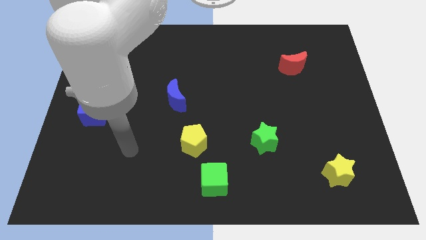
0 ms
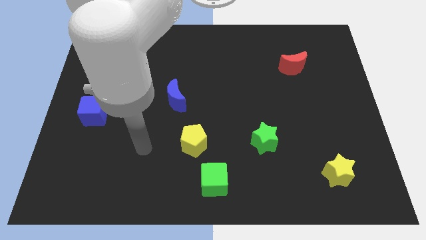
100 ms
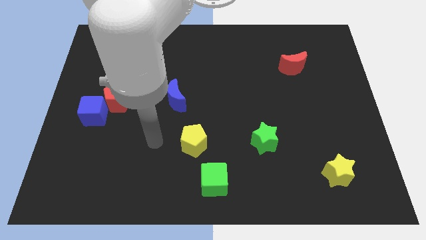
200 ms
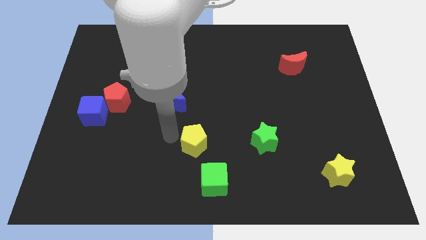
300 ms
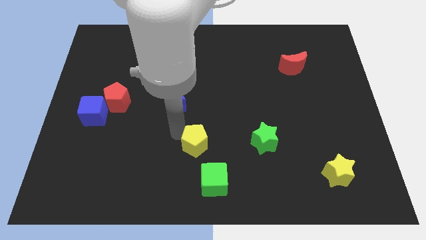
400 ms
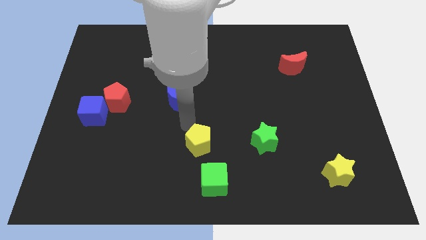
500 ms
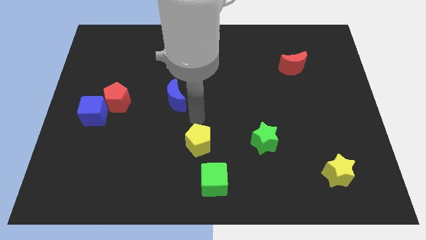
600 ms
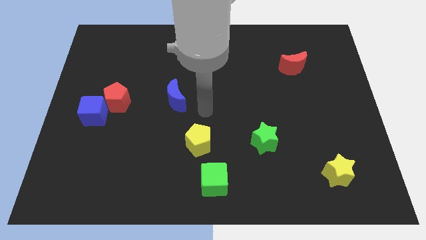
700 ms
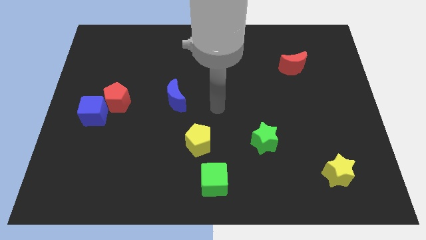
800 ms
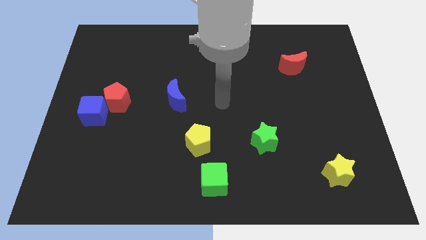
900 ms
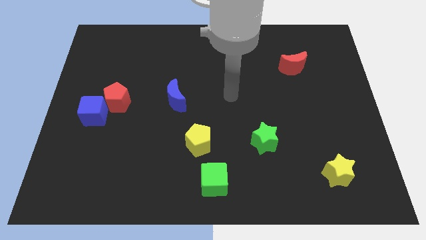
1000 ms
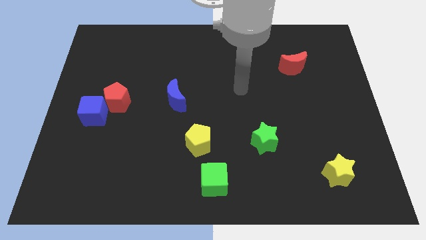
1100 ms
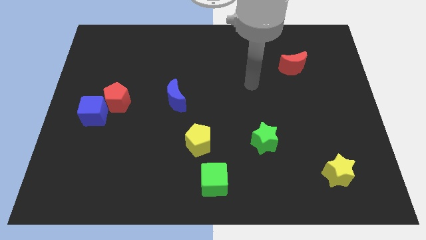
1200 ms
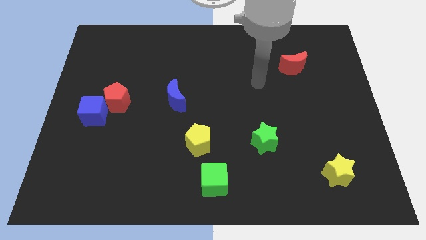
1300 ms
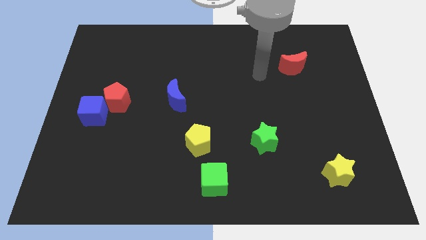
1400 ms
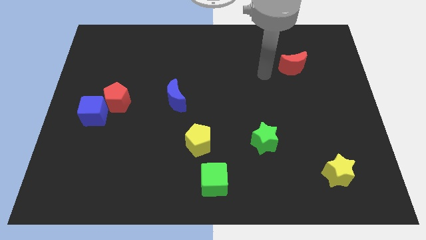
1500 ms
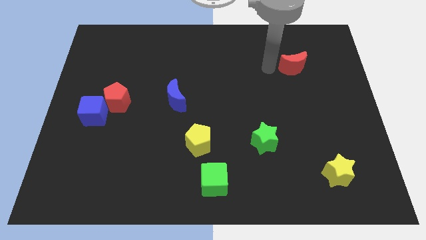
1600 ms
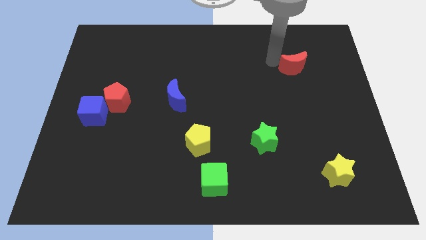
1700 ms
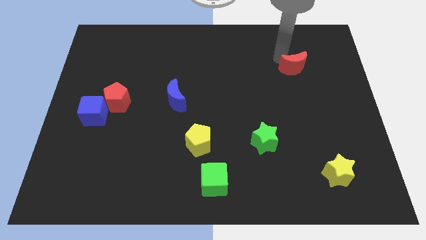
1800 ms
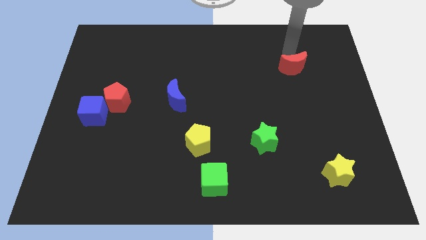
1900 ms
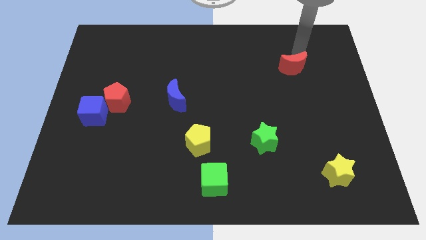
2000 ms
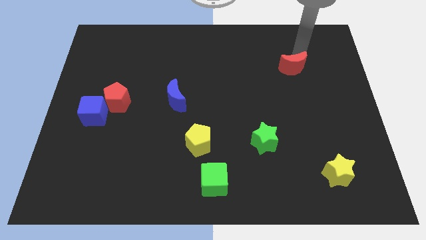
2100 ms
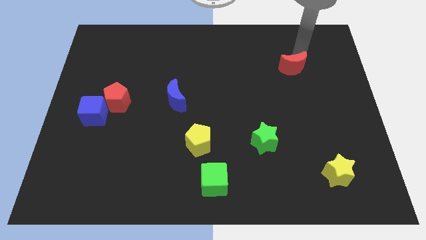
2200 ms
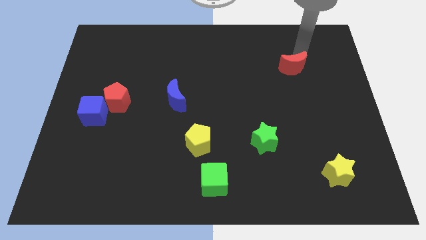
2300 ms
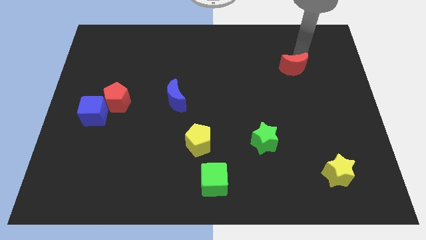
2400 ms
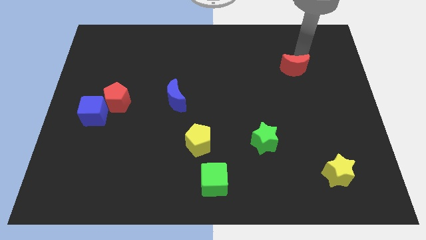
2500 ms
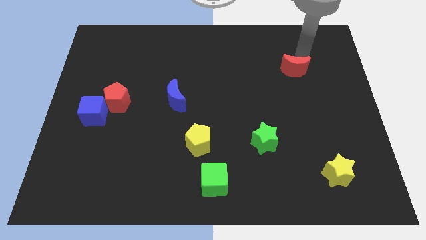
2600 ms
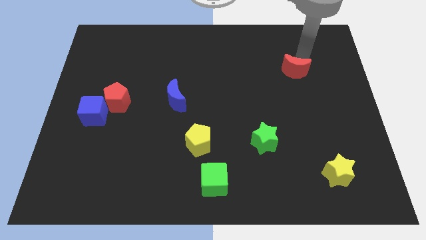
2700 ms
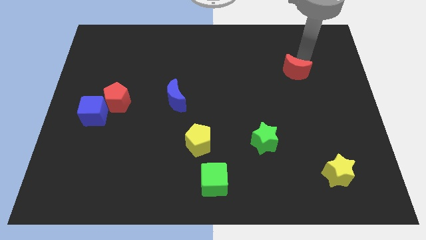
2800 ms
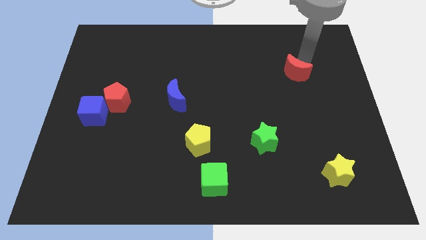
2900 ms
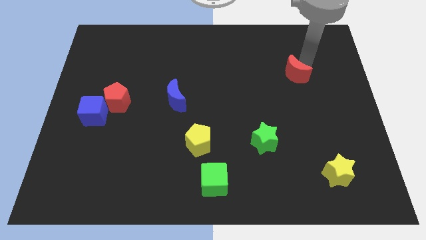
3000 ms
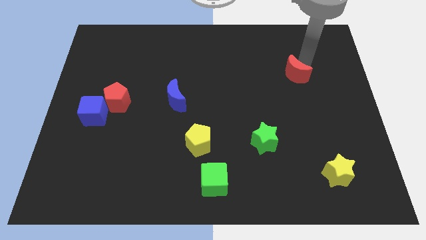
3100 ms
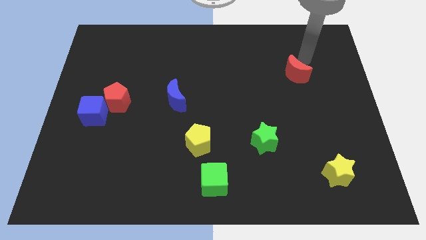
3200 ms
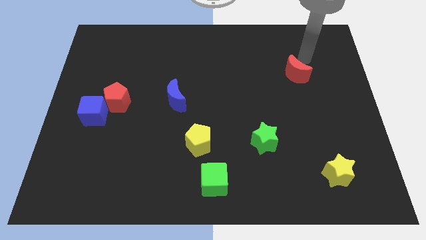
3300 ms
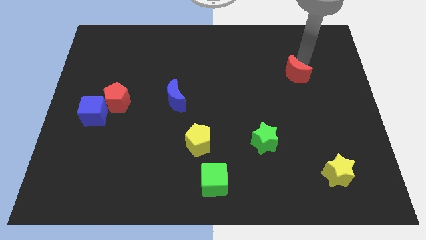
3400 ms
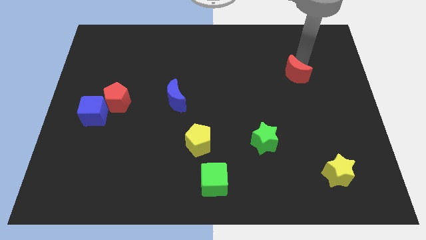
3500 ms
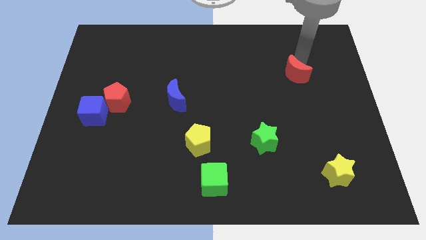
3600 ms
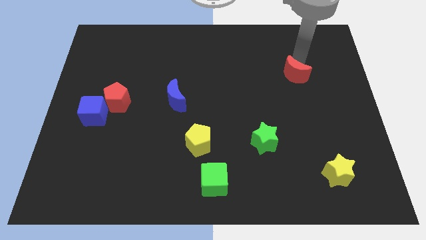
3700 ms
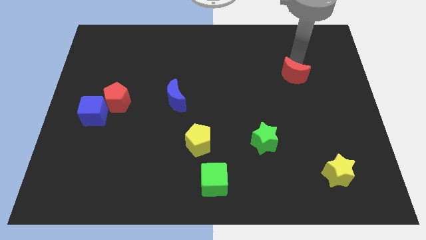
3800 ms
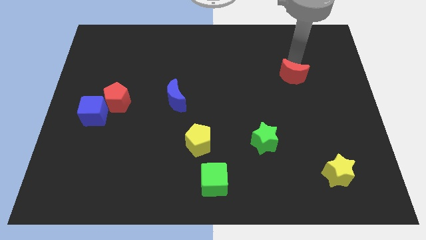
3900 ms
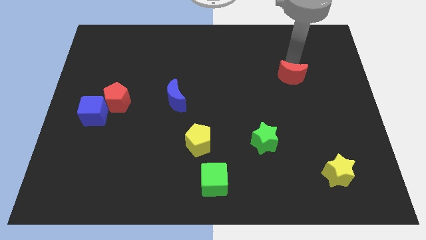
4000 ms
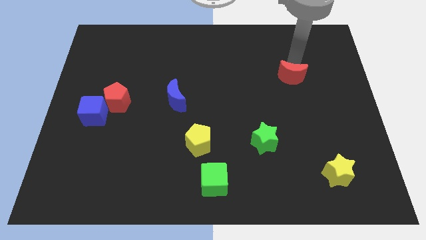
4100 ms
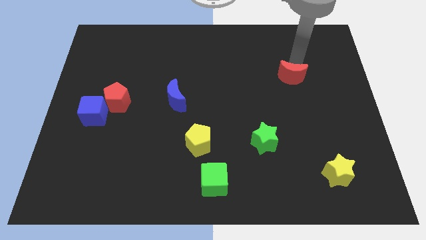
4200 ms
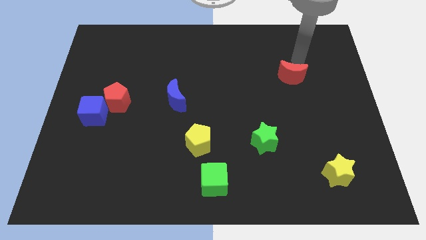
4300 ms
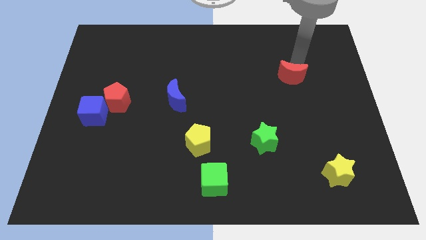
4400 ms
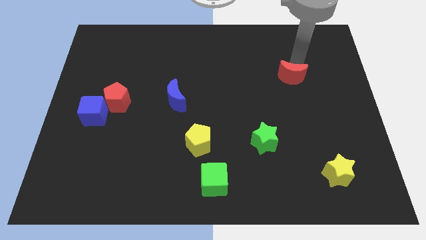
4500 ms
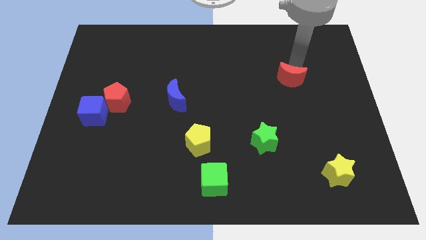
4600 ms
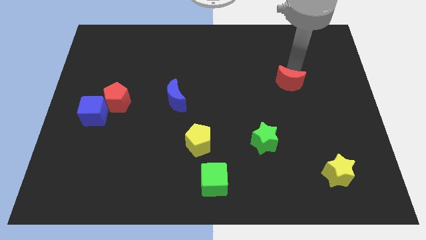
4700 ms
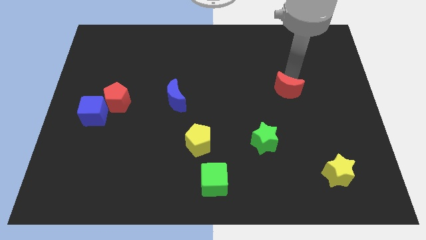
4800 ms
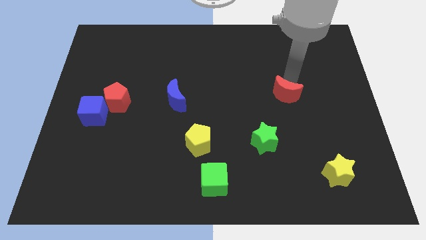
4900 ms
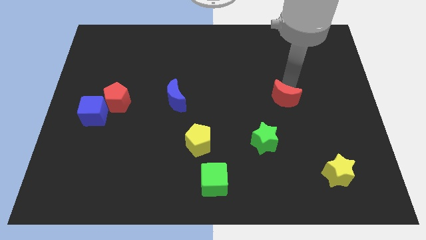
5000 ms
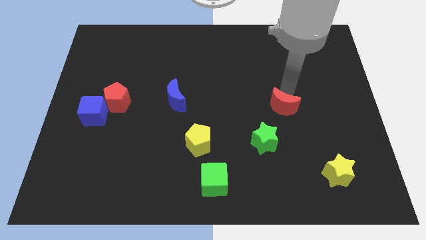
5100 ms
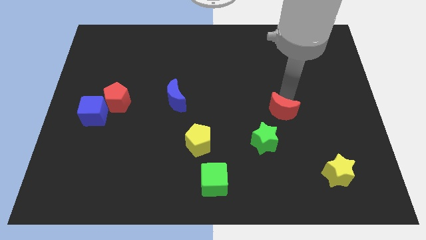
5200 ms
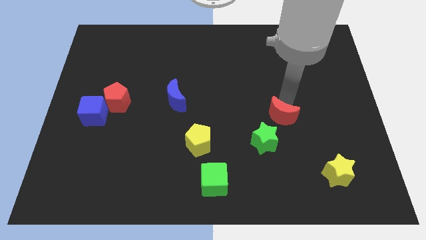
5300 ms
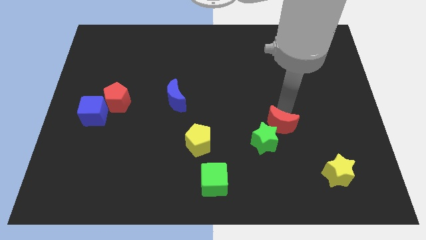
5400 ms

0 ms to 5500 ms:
move the red moon next to the green star

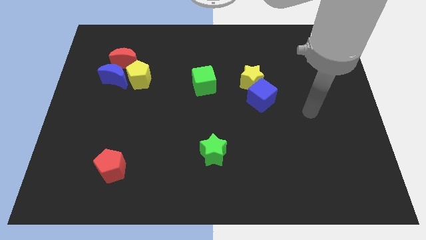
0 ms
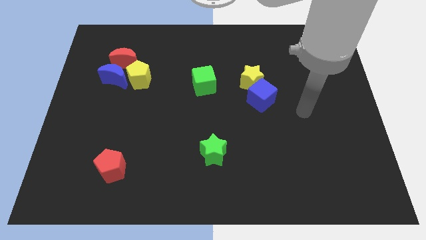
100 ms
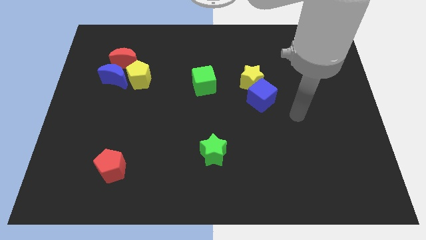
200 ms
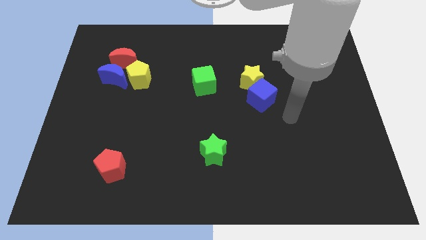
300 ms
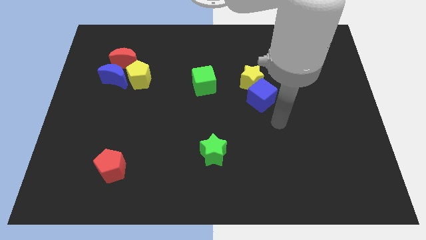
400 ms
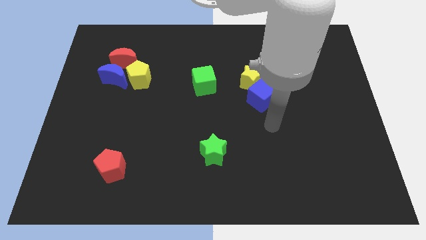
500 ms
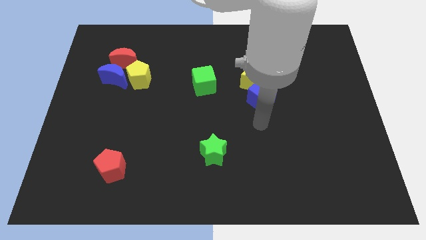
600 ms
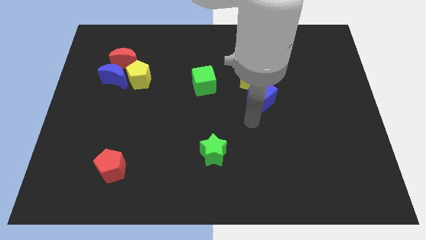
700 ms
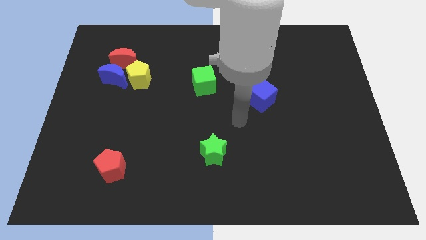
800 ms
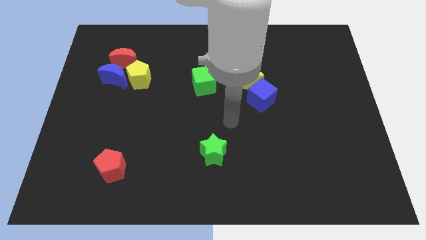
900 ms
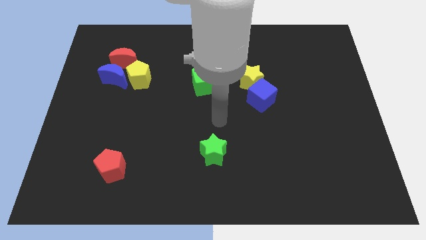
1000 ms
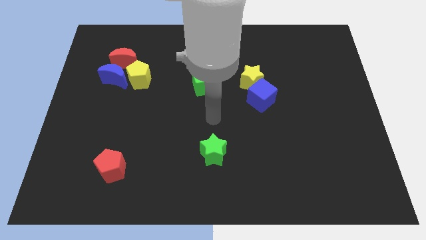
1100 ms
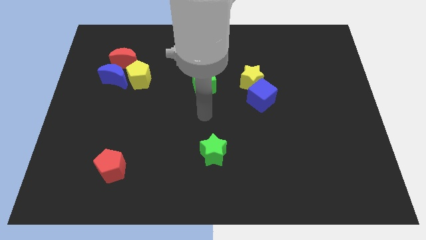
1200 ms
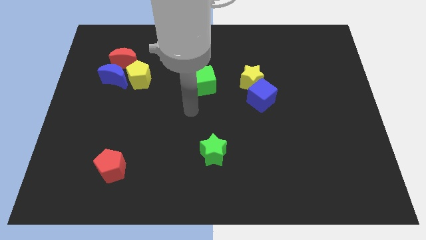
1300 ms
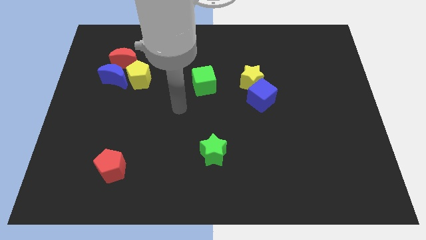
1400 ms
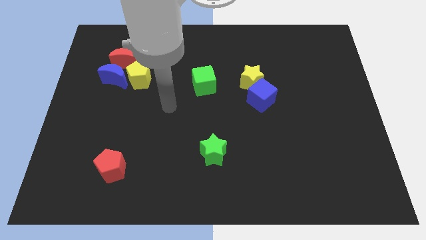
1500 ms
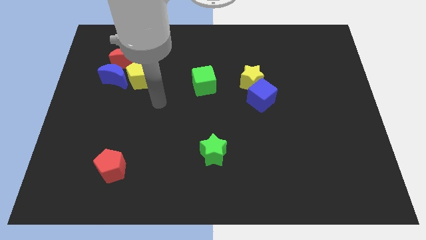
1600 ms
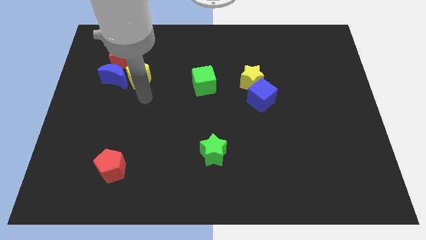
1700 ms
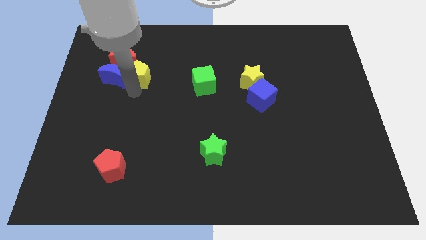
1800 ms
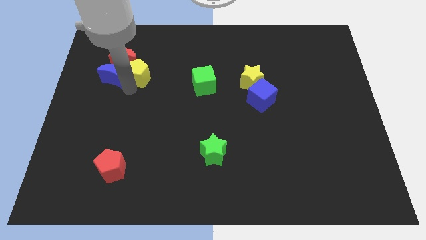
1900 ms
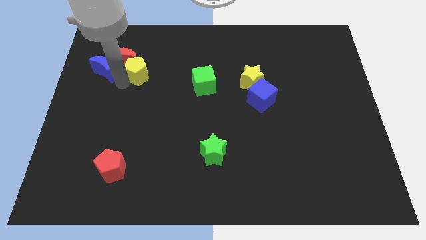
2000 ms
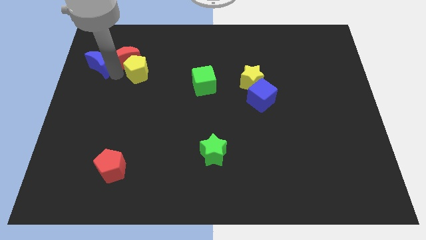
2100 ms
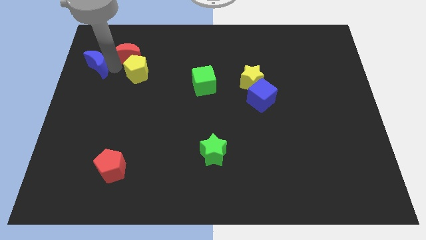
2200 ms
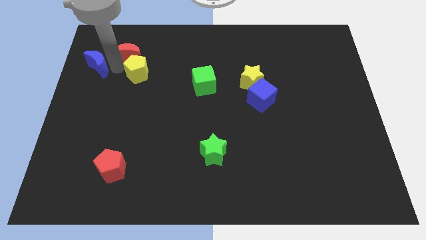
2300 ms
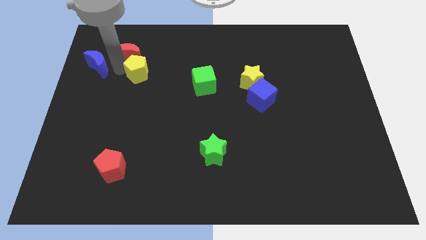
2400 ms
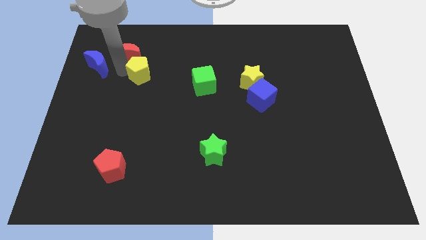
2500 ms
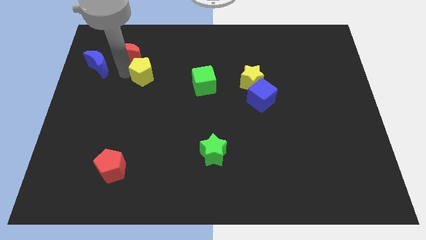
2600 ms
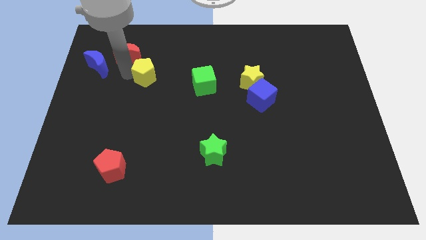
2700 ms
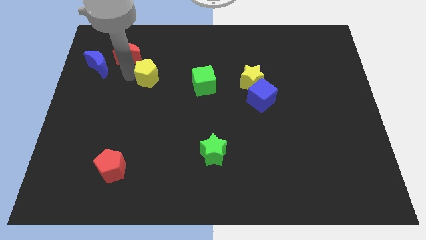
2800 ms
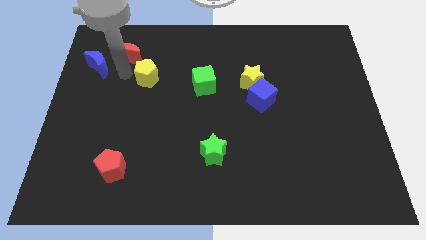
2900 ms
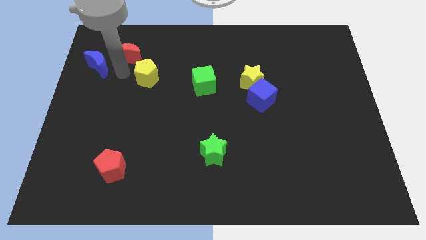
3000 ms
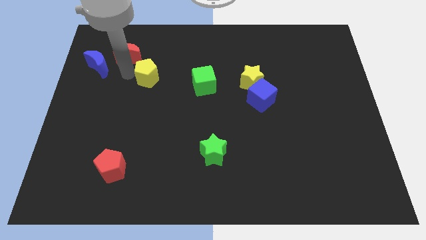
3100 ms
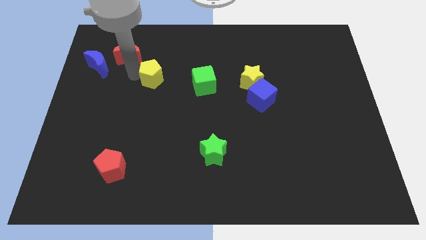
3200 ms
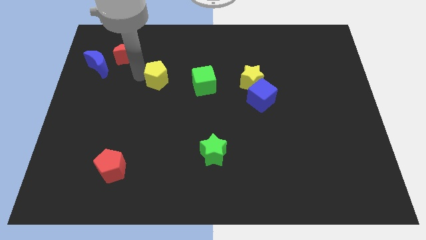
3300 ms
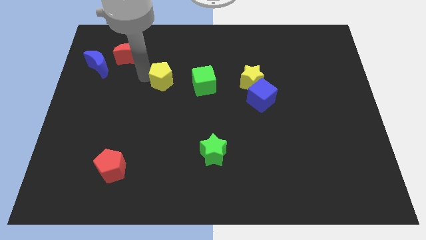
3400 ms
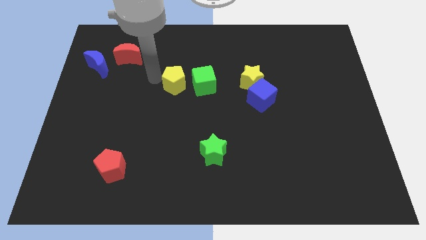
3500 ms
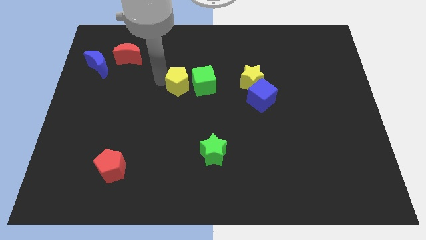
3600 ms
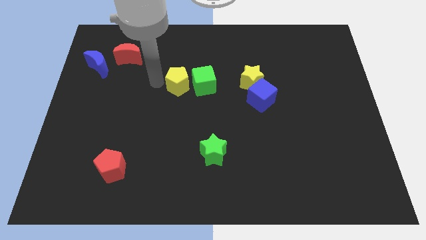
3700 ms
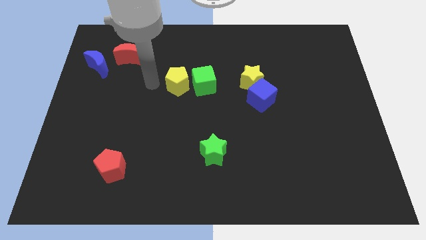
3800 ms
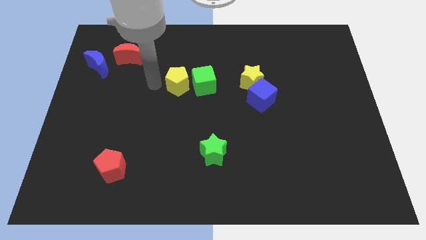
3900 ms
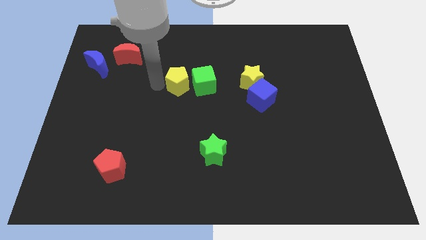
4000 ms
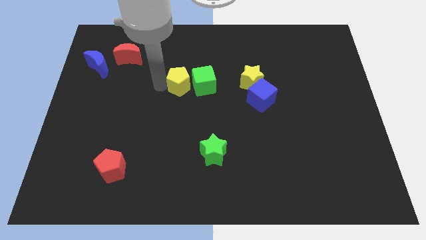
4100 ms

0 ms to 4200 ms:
slide the yellow pentagon close to the green cube
